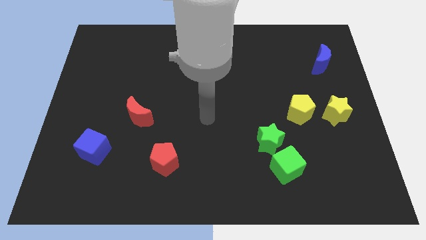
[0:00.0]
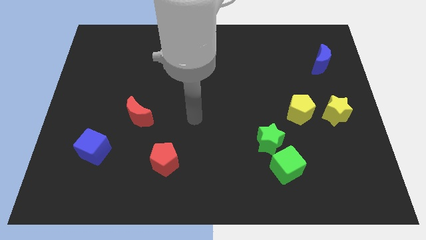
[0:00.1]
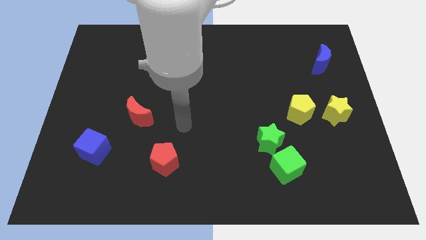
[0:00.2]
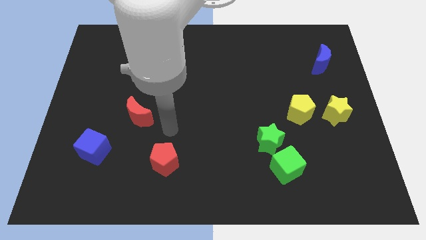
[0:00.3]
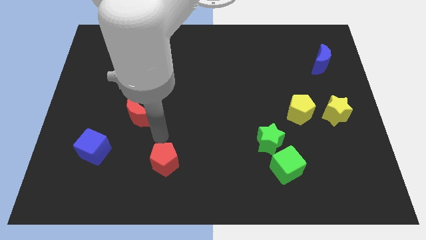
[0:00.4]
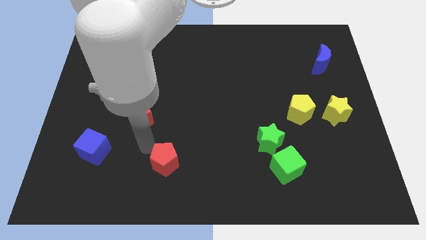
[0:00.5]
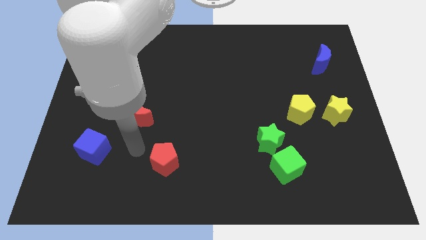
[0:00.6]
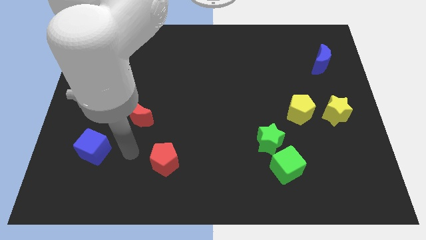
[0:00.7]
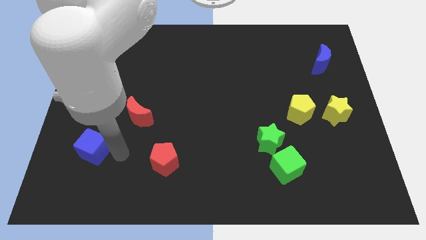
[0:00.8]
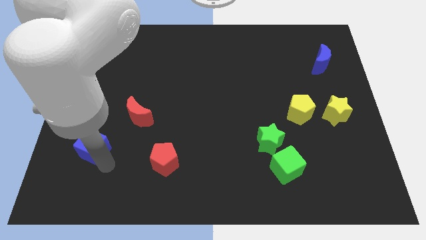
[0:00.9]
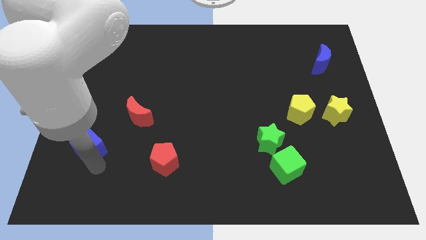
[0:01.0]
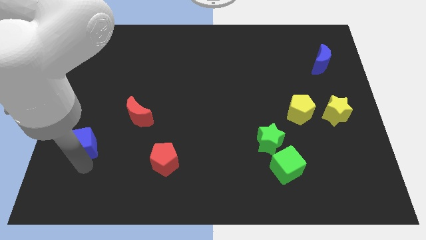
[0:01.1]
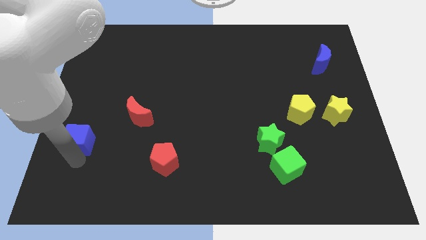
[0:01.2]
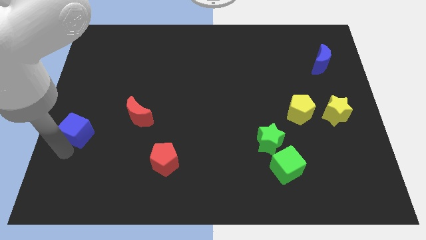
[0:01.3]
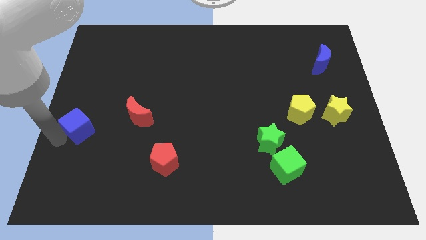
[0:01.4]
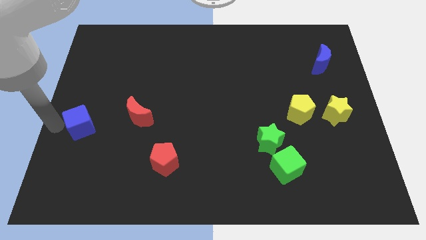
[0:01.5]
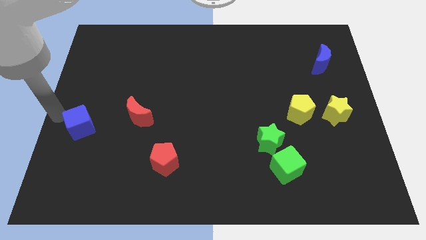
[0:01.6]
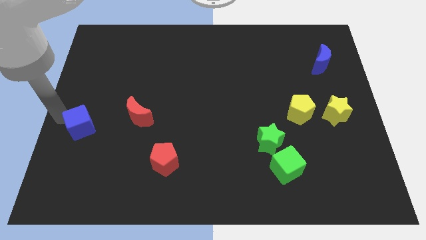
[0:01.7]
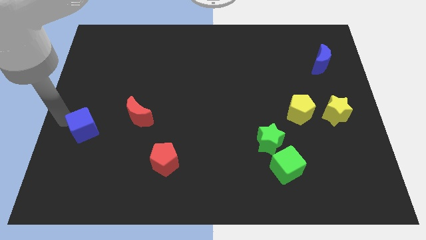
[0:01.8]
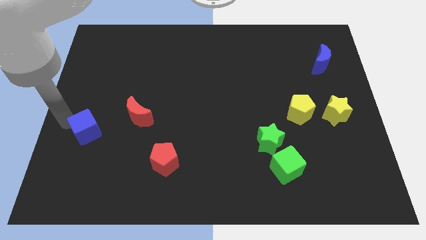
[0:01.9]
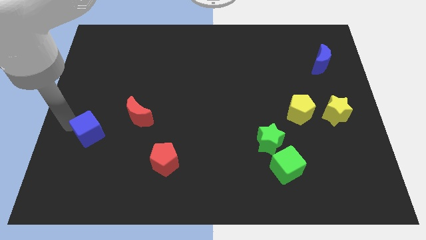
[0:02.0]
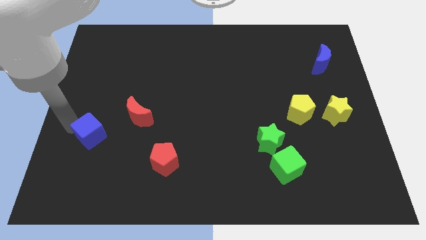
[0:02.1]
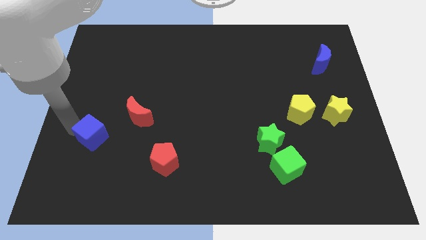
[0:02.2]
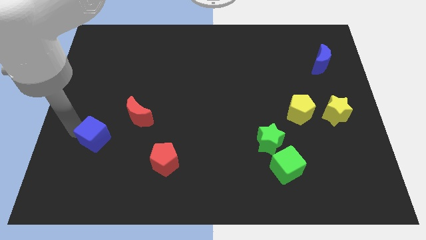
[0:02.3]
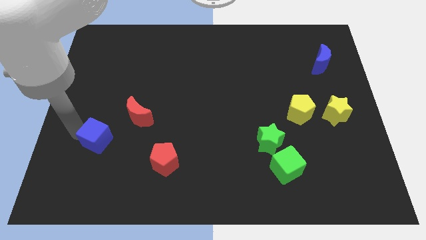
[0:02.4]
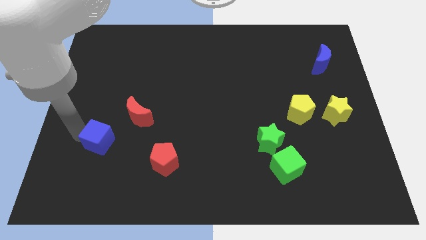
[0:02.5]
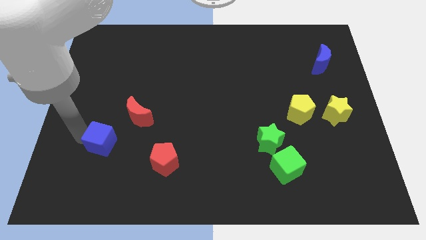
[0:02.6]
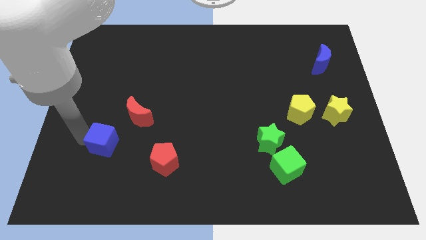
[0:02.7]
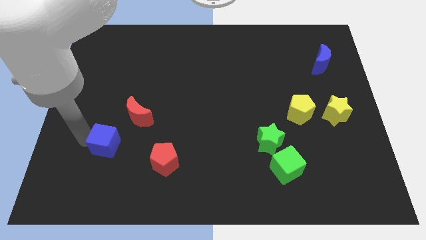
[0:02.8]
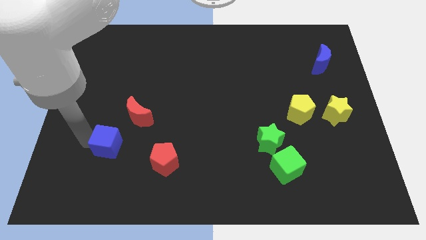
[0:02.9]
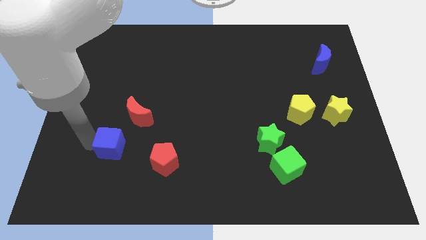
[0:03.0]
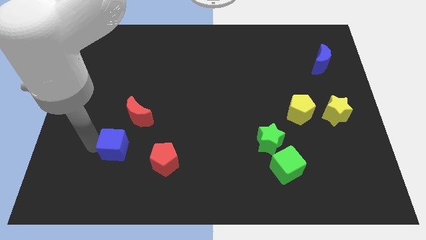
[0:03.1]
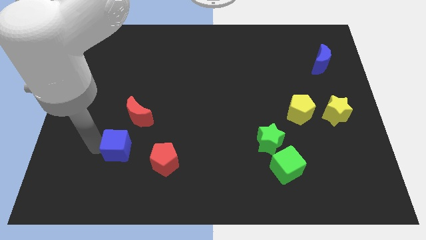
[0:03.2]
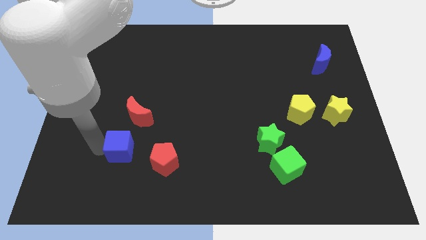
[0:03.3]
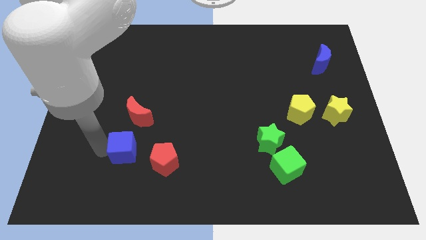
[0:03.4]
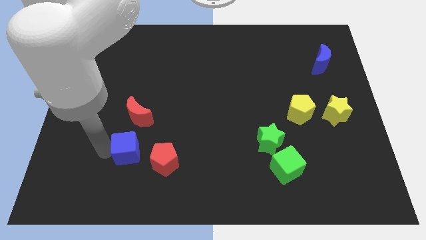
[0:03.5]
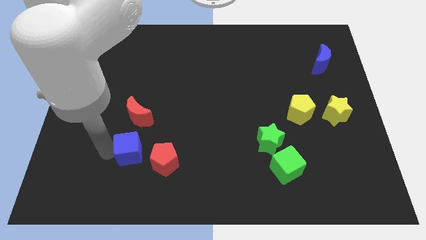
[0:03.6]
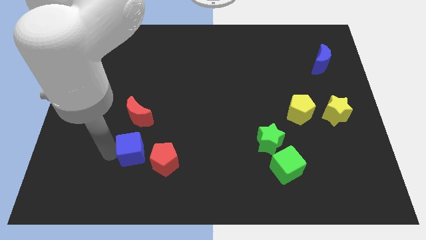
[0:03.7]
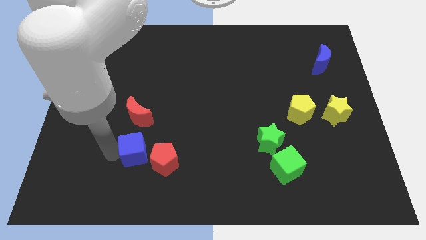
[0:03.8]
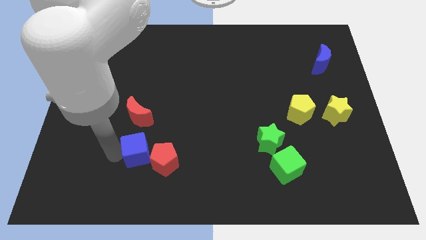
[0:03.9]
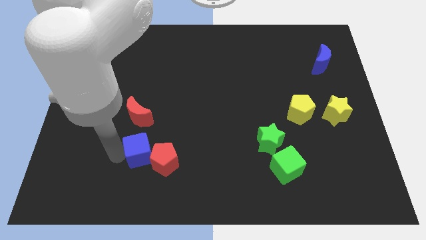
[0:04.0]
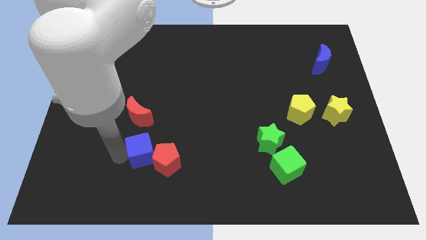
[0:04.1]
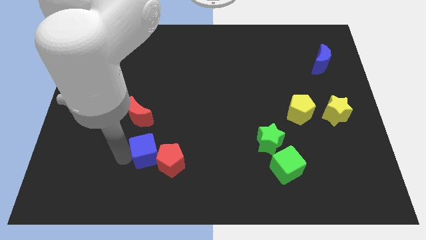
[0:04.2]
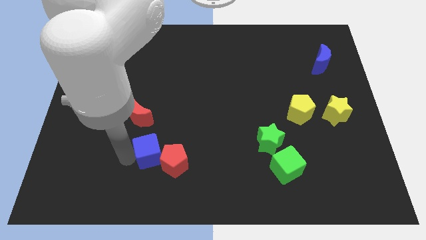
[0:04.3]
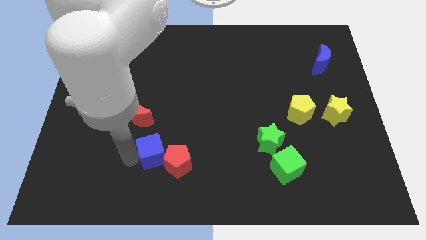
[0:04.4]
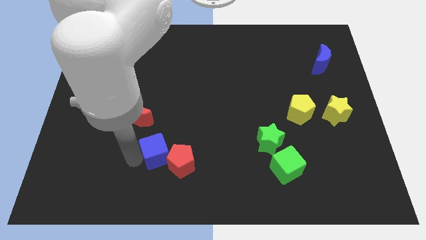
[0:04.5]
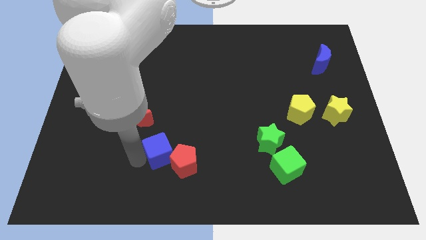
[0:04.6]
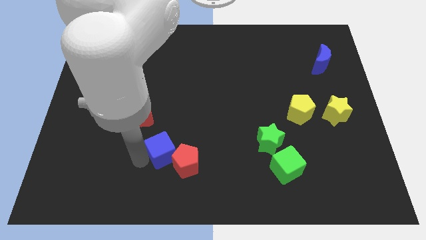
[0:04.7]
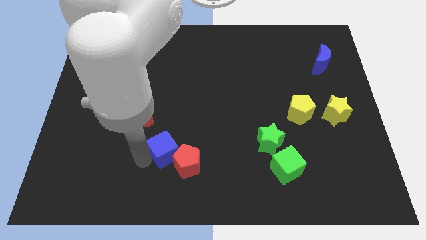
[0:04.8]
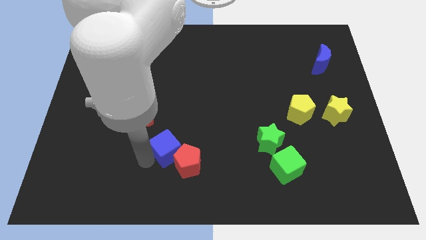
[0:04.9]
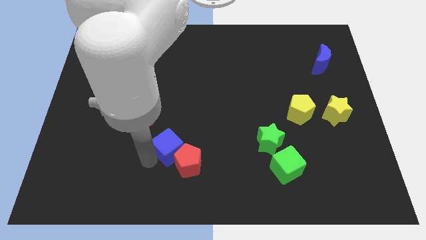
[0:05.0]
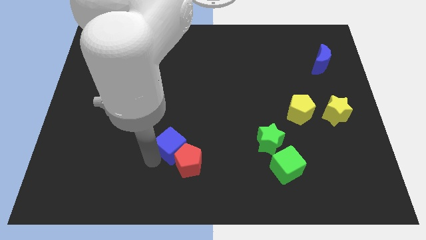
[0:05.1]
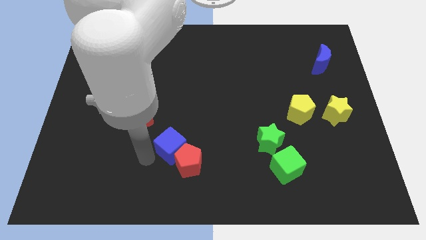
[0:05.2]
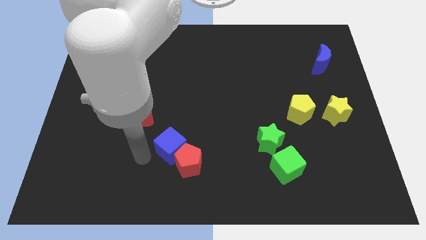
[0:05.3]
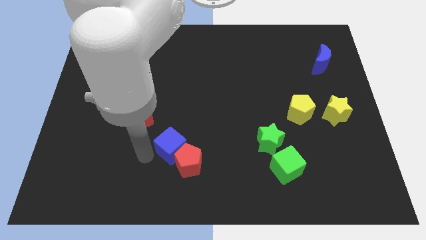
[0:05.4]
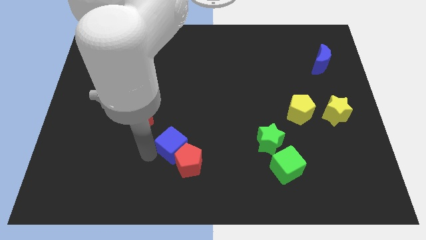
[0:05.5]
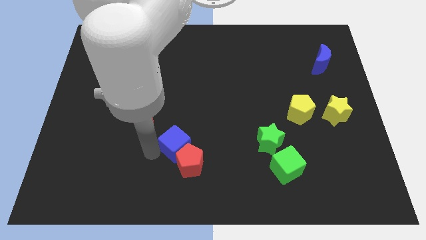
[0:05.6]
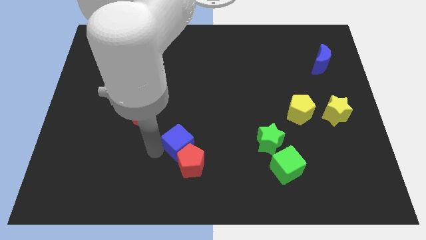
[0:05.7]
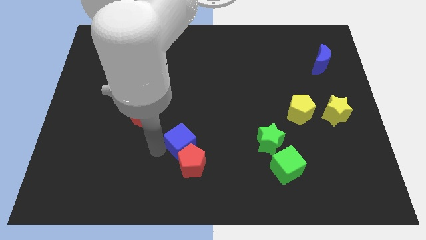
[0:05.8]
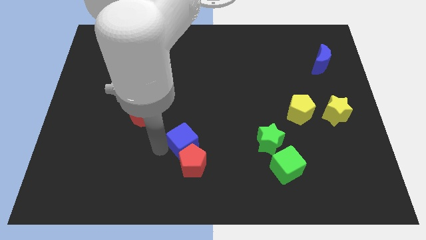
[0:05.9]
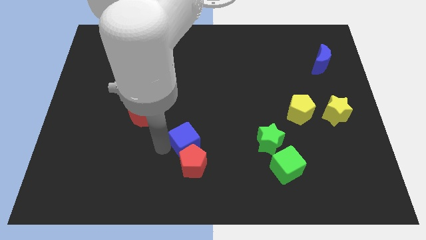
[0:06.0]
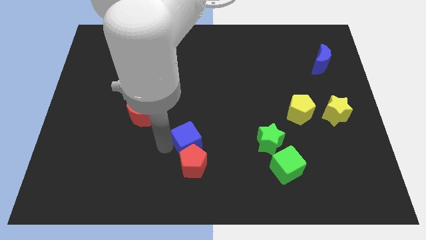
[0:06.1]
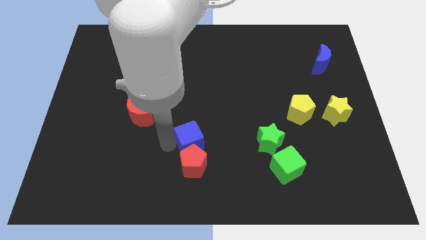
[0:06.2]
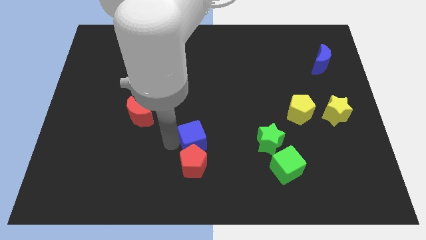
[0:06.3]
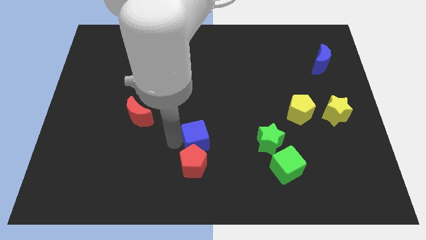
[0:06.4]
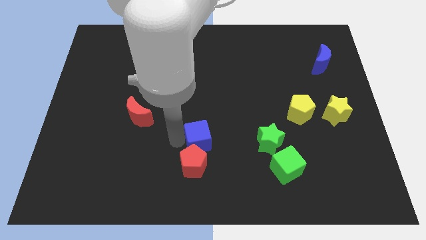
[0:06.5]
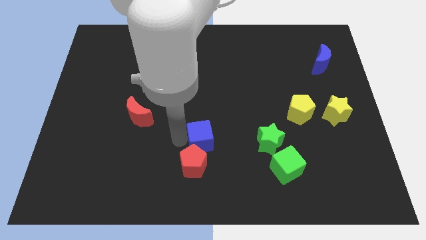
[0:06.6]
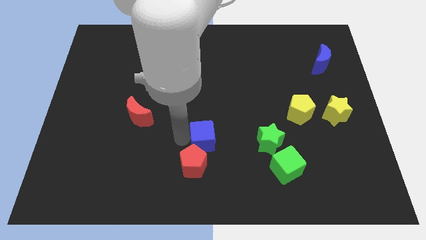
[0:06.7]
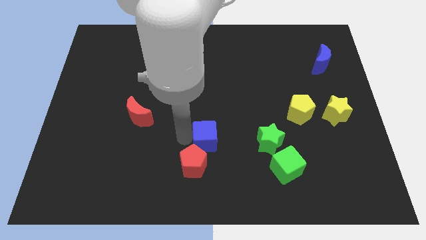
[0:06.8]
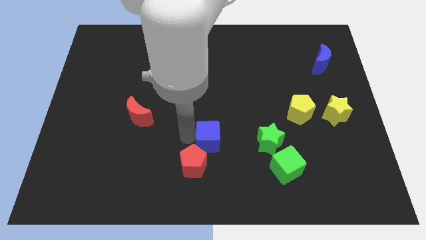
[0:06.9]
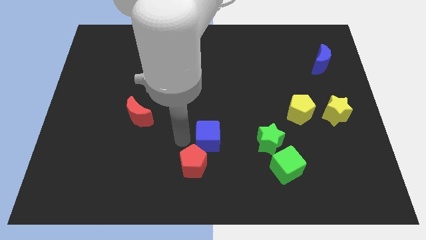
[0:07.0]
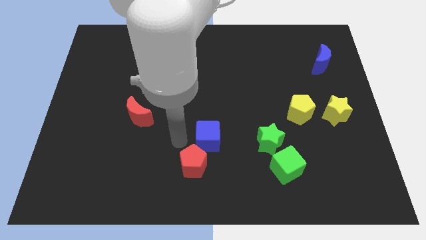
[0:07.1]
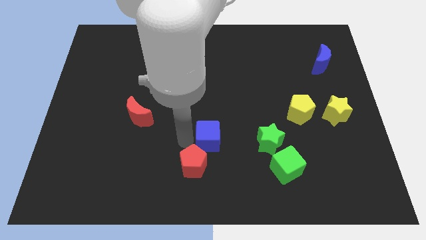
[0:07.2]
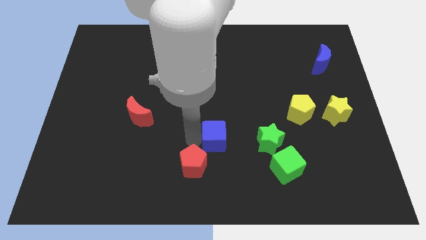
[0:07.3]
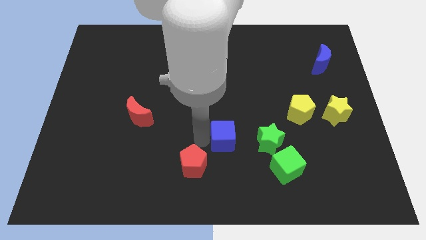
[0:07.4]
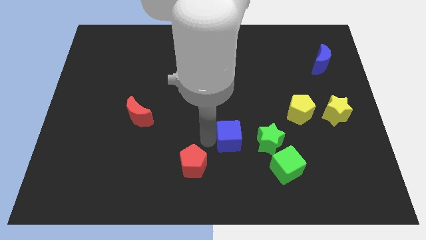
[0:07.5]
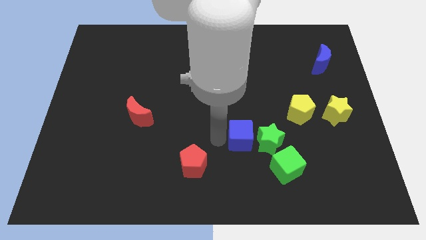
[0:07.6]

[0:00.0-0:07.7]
put the blue cube close to the green star
